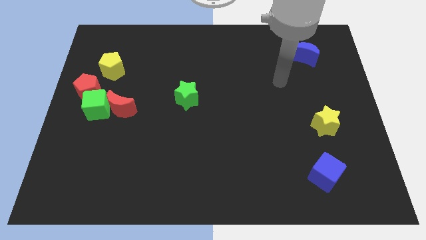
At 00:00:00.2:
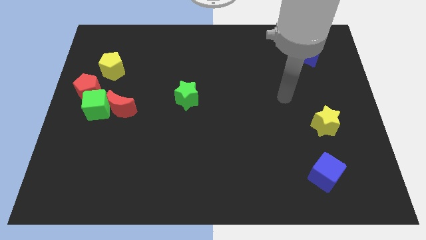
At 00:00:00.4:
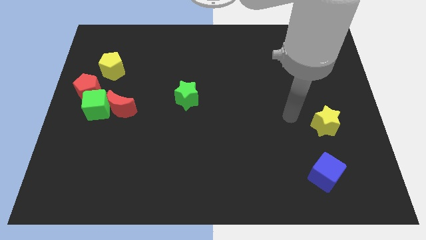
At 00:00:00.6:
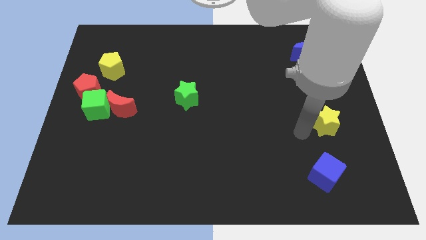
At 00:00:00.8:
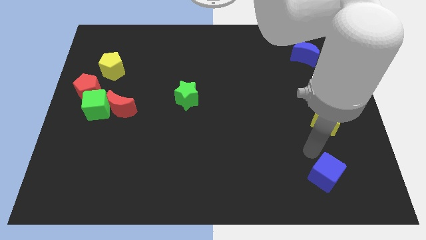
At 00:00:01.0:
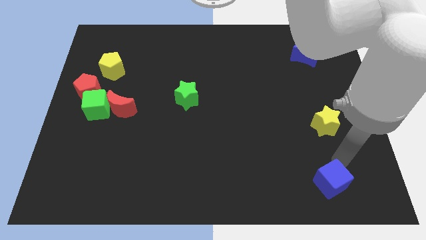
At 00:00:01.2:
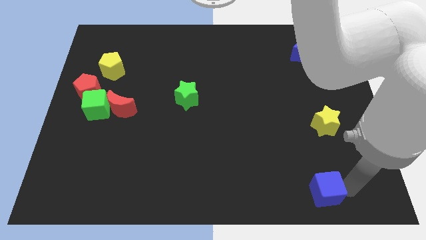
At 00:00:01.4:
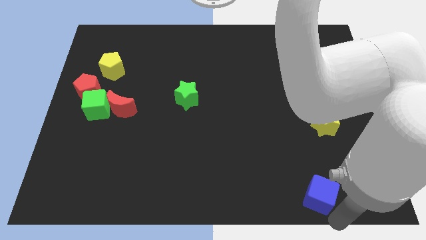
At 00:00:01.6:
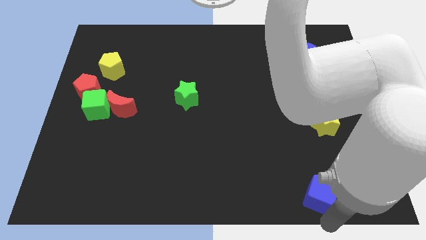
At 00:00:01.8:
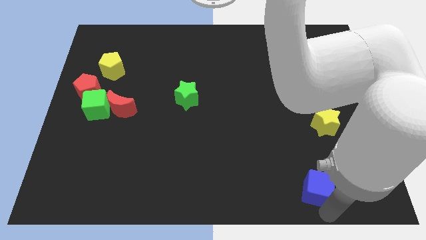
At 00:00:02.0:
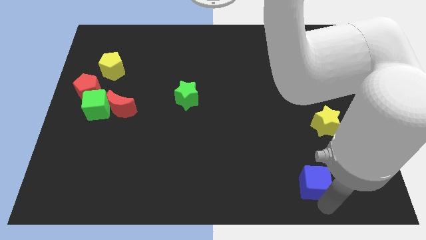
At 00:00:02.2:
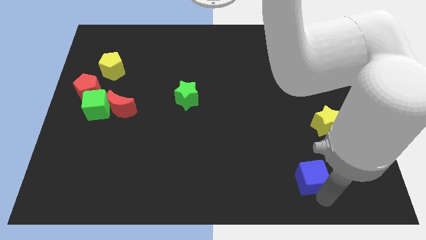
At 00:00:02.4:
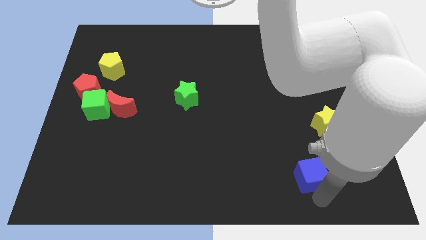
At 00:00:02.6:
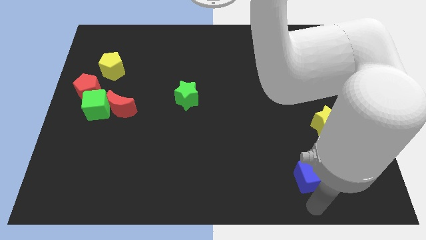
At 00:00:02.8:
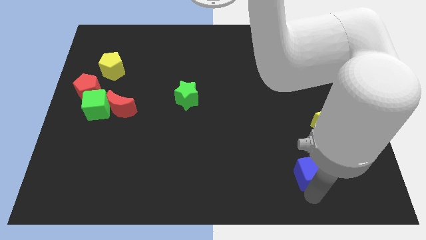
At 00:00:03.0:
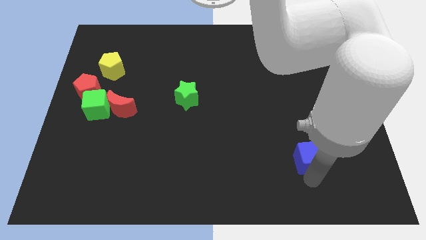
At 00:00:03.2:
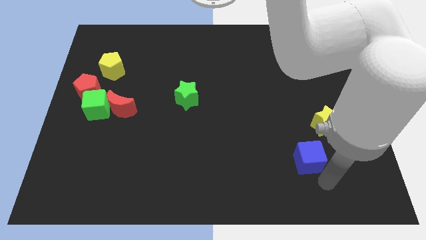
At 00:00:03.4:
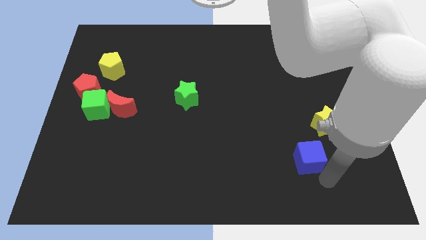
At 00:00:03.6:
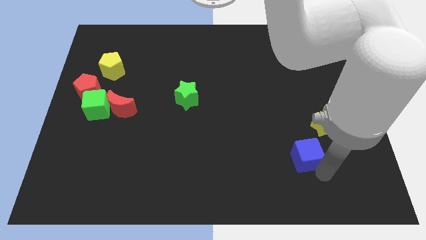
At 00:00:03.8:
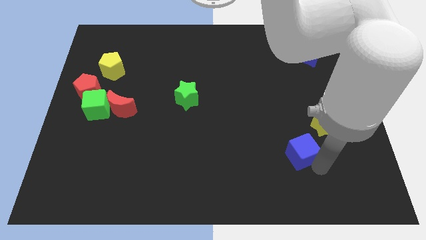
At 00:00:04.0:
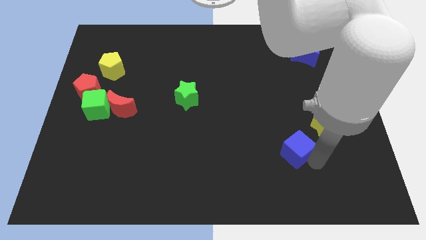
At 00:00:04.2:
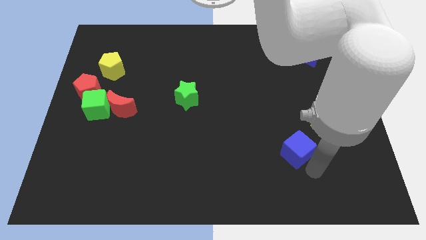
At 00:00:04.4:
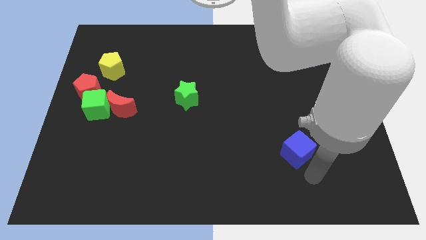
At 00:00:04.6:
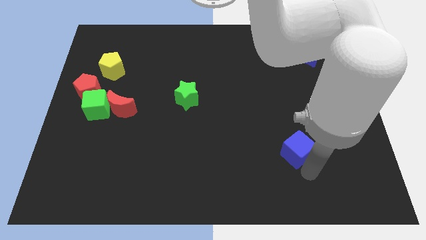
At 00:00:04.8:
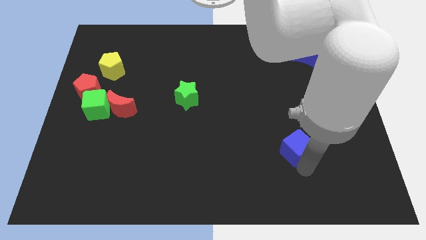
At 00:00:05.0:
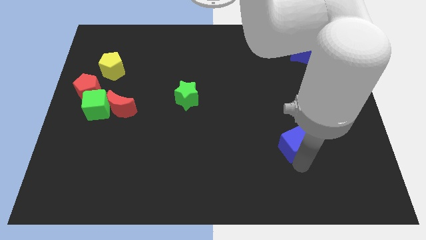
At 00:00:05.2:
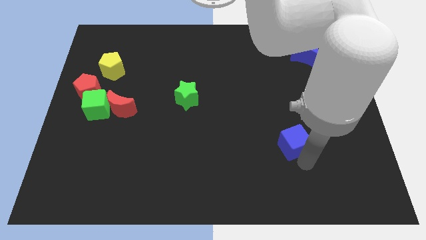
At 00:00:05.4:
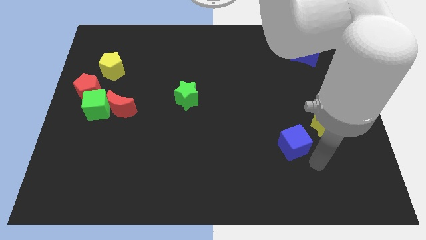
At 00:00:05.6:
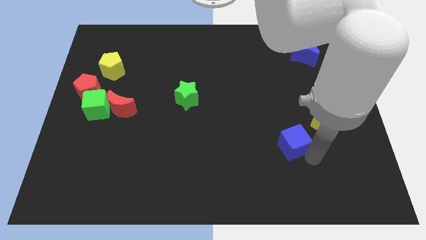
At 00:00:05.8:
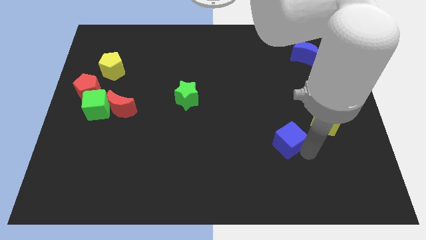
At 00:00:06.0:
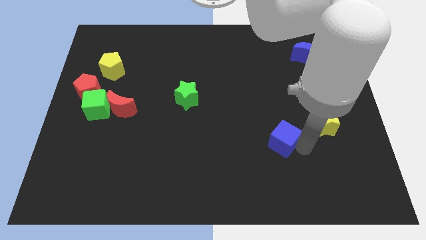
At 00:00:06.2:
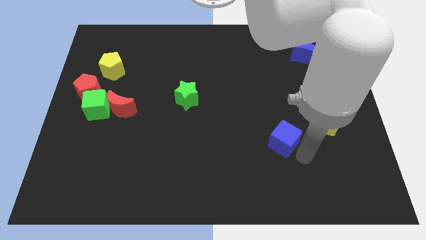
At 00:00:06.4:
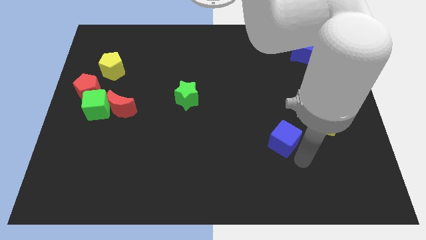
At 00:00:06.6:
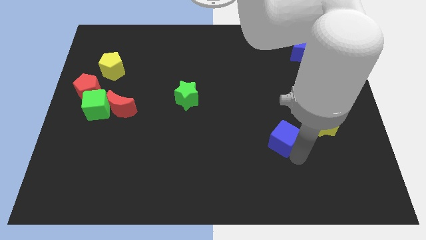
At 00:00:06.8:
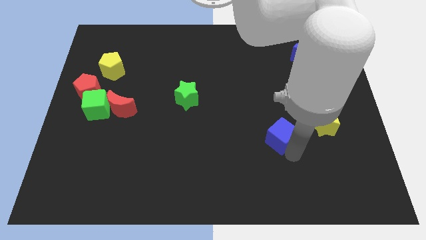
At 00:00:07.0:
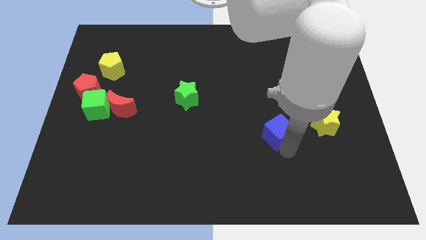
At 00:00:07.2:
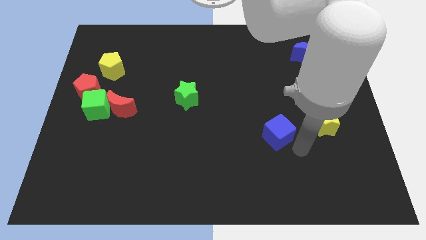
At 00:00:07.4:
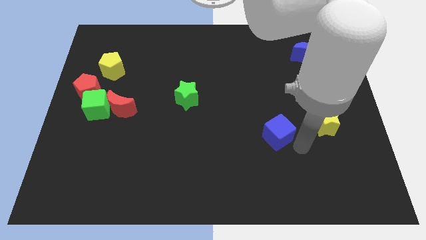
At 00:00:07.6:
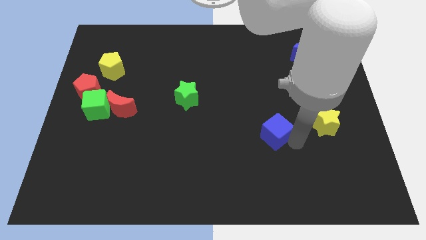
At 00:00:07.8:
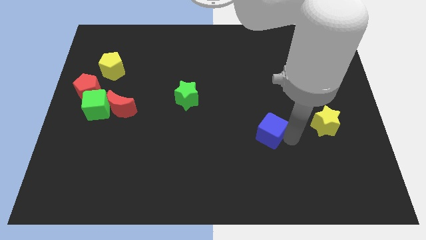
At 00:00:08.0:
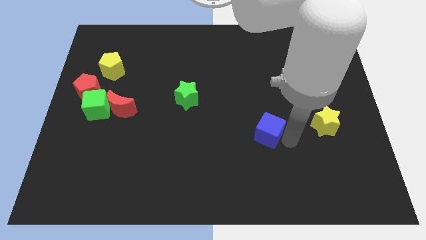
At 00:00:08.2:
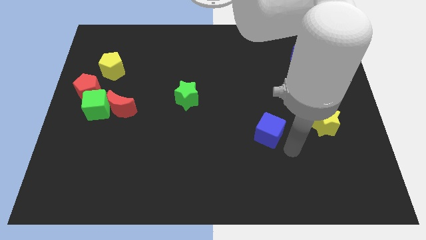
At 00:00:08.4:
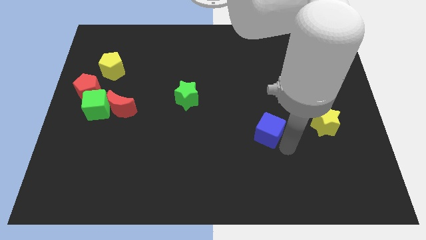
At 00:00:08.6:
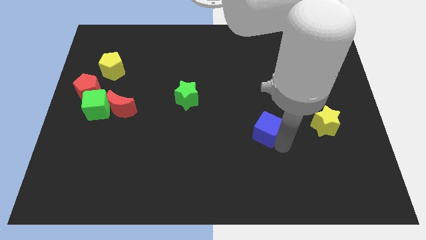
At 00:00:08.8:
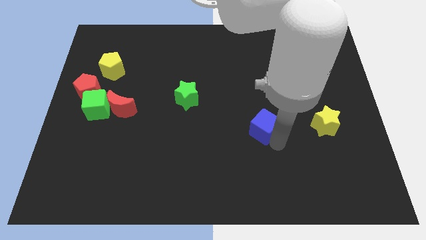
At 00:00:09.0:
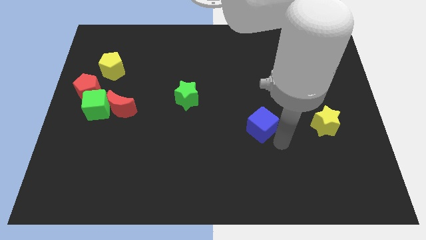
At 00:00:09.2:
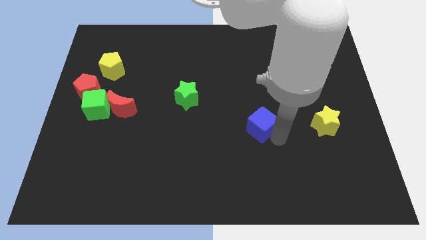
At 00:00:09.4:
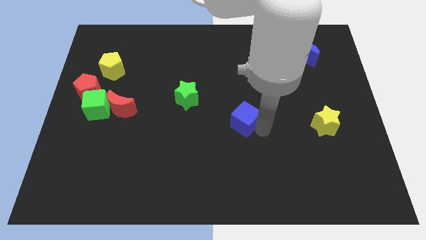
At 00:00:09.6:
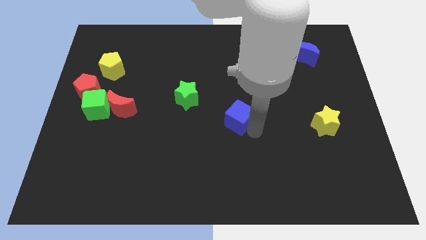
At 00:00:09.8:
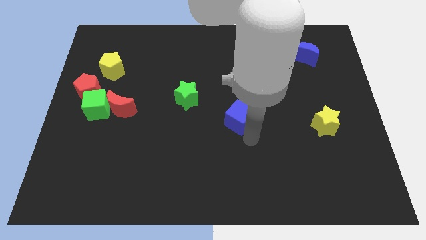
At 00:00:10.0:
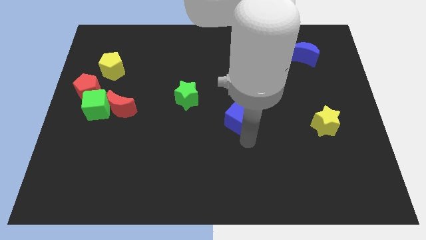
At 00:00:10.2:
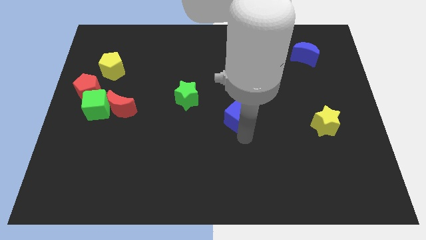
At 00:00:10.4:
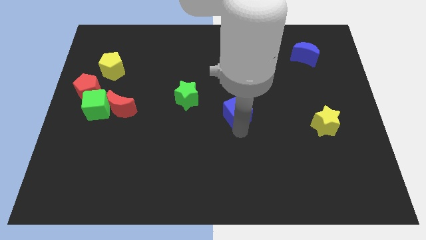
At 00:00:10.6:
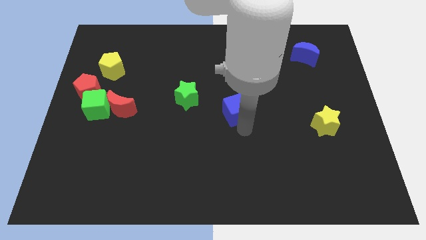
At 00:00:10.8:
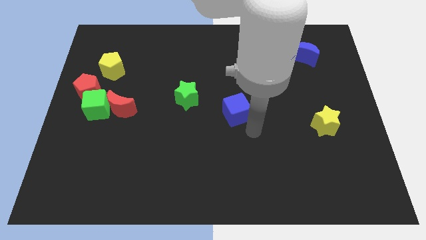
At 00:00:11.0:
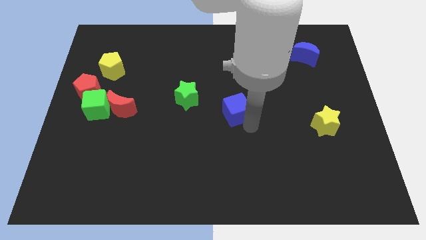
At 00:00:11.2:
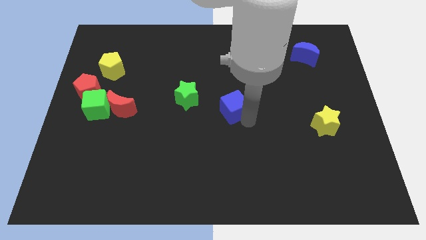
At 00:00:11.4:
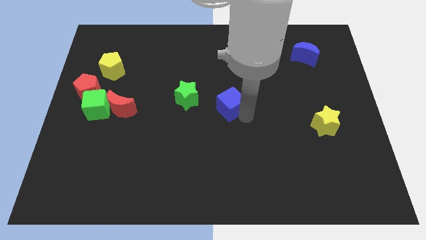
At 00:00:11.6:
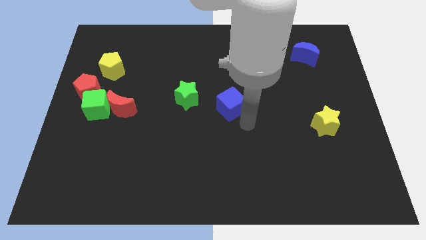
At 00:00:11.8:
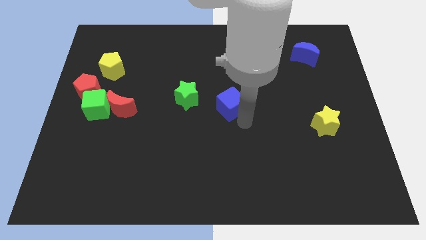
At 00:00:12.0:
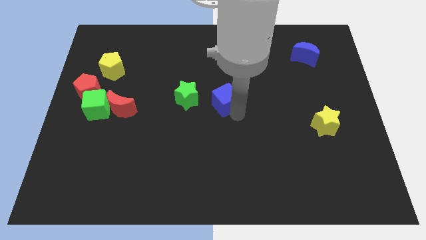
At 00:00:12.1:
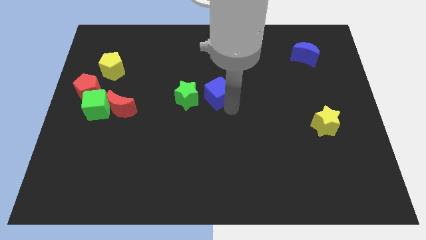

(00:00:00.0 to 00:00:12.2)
put the blue cube diagonally up and to the right of the green star

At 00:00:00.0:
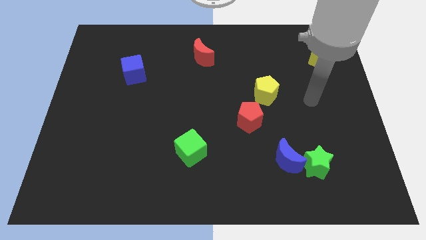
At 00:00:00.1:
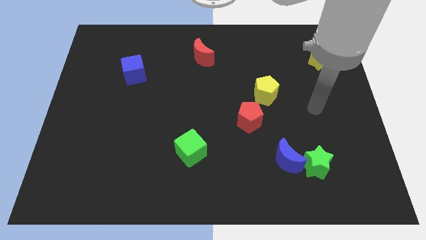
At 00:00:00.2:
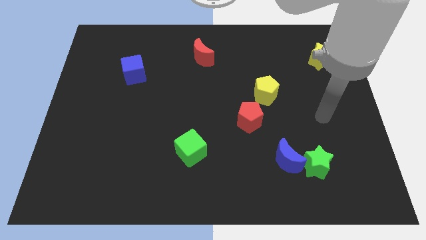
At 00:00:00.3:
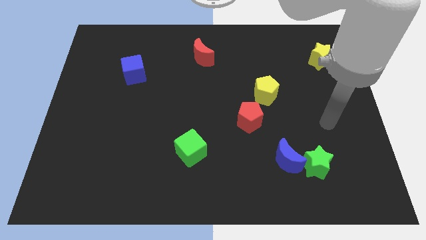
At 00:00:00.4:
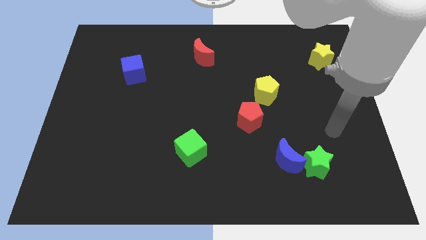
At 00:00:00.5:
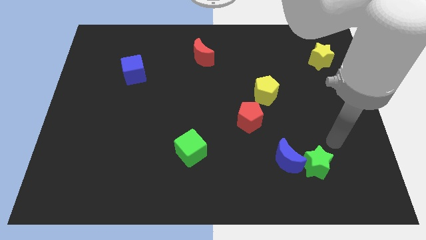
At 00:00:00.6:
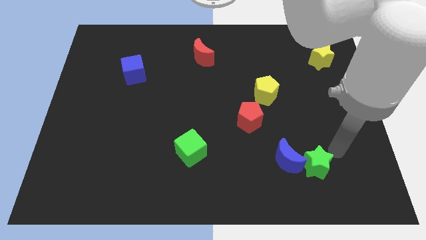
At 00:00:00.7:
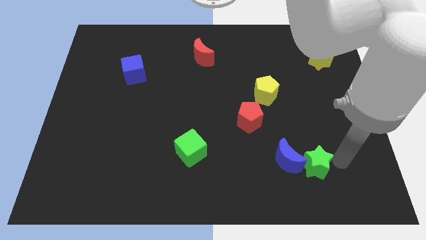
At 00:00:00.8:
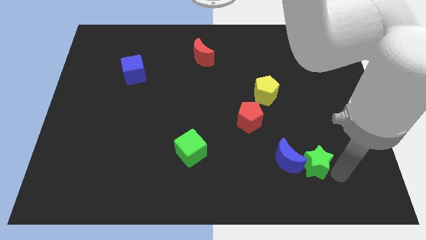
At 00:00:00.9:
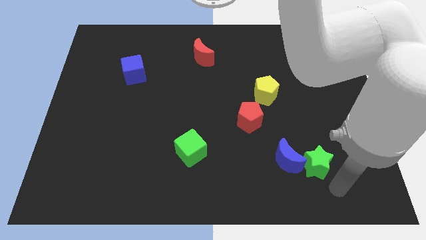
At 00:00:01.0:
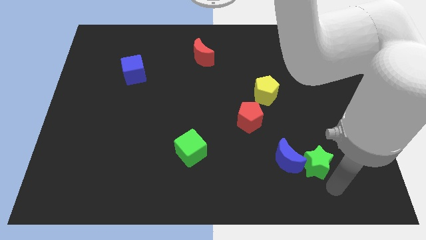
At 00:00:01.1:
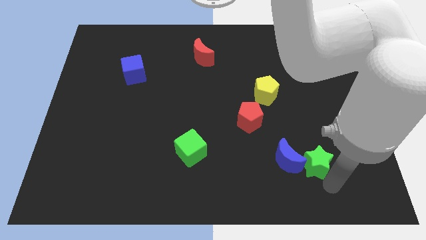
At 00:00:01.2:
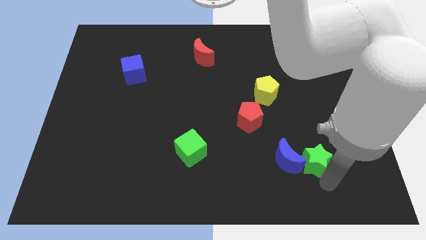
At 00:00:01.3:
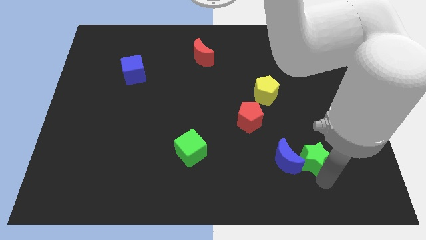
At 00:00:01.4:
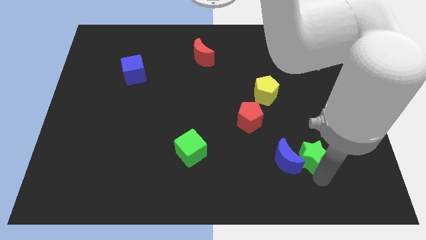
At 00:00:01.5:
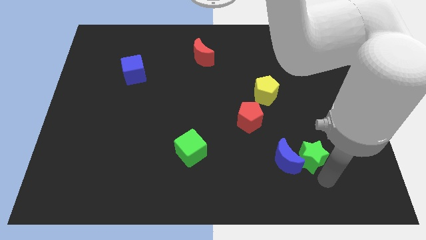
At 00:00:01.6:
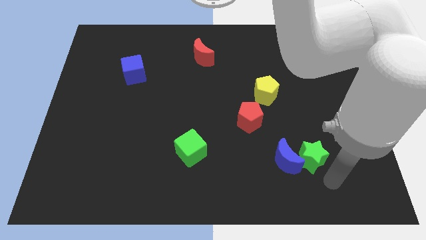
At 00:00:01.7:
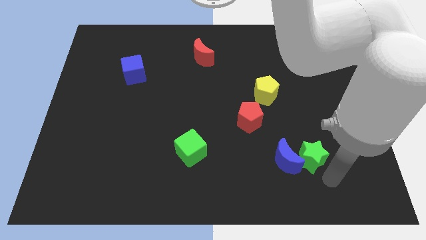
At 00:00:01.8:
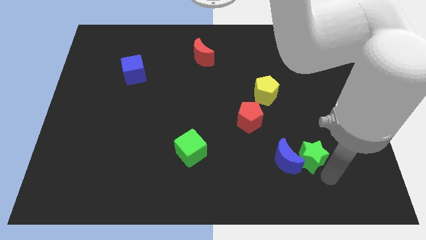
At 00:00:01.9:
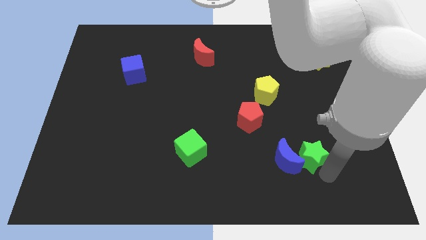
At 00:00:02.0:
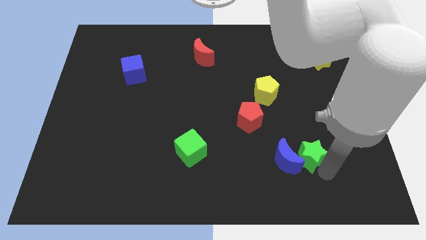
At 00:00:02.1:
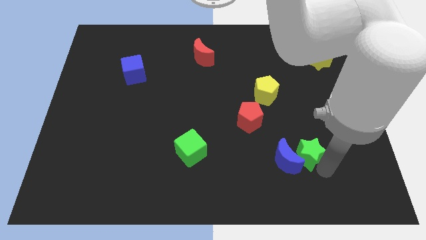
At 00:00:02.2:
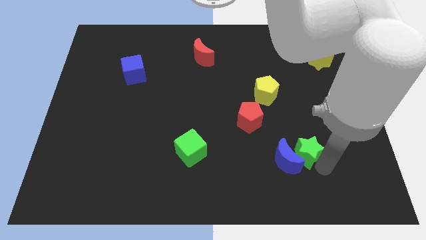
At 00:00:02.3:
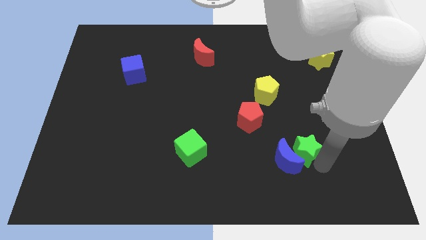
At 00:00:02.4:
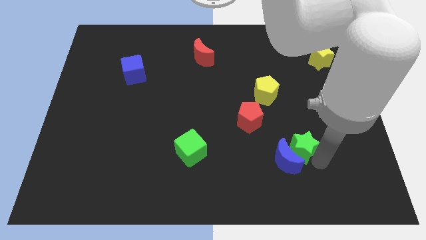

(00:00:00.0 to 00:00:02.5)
put the green star above the blue moon
